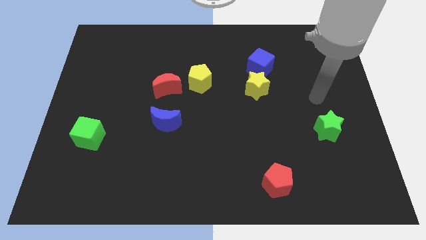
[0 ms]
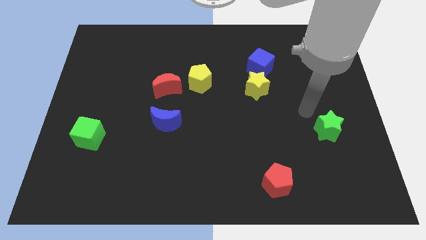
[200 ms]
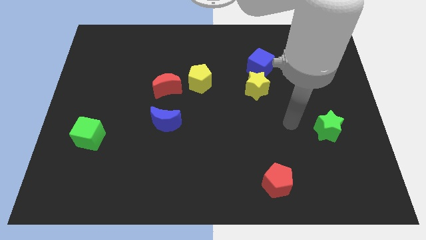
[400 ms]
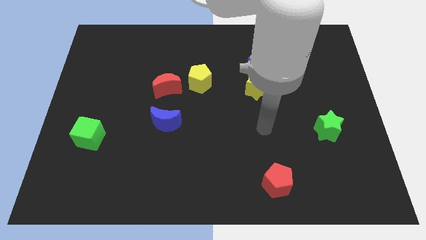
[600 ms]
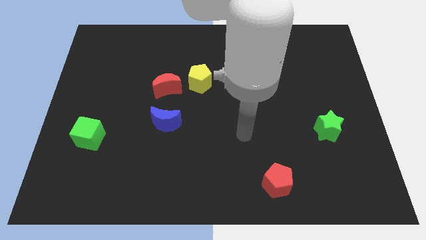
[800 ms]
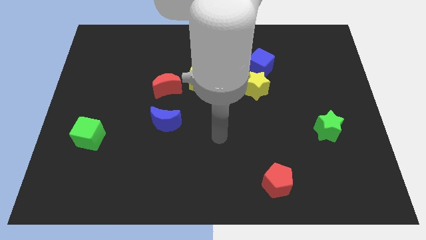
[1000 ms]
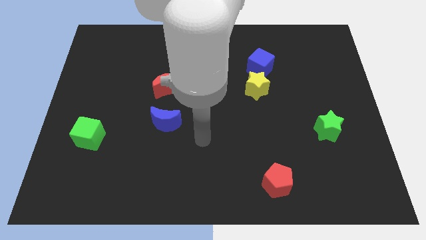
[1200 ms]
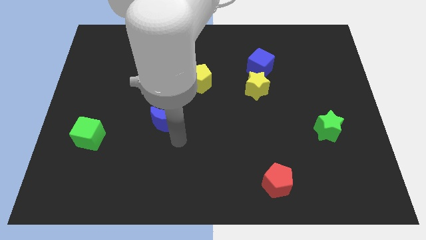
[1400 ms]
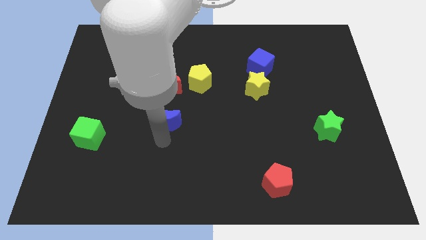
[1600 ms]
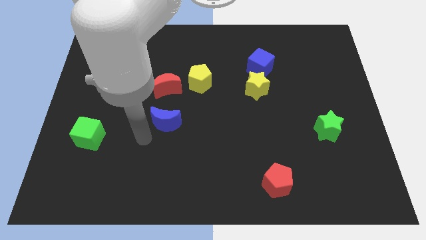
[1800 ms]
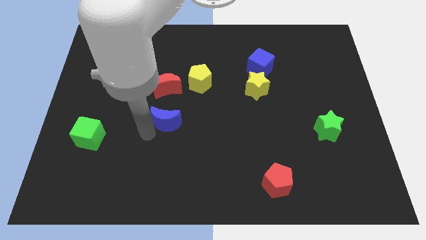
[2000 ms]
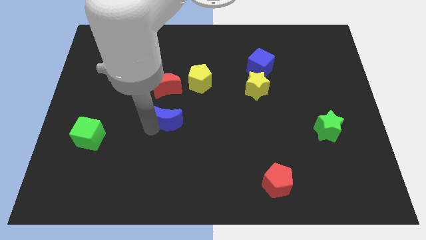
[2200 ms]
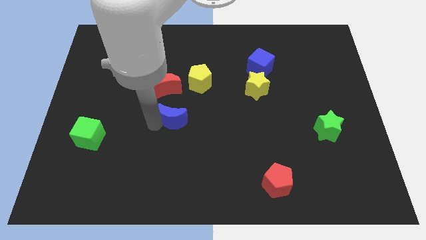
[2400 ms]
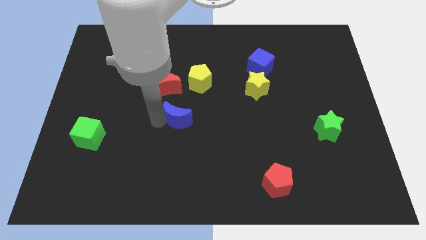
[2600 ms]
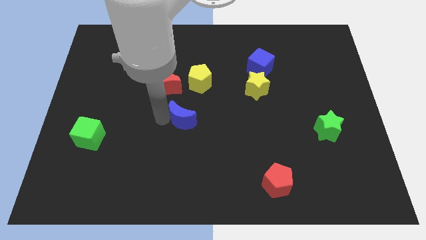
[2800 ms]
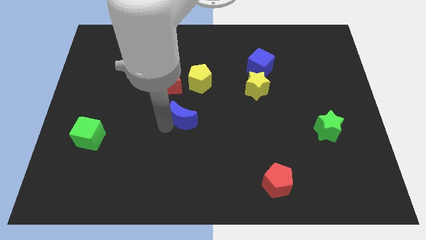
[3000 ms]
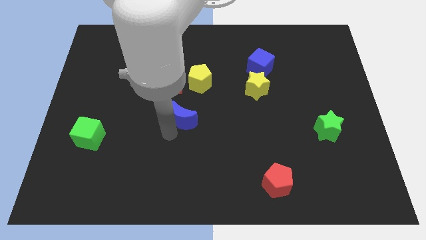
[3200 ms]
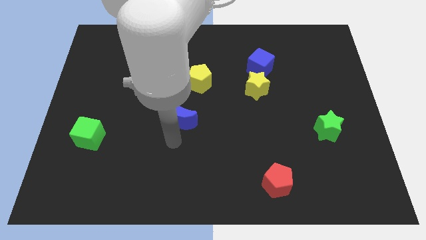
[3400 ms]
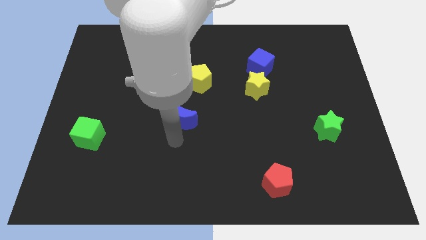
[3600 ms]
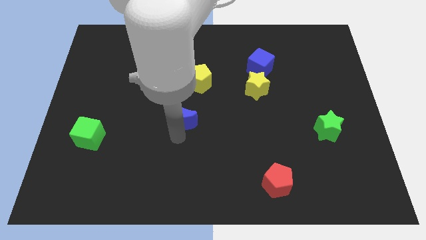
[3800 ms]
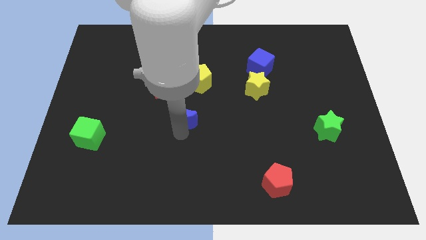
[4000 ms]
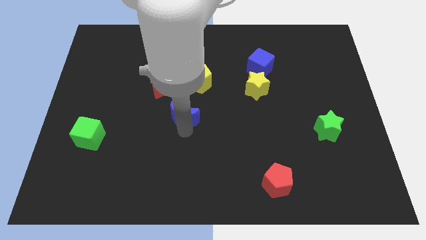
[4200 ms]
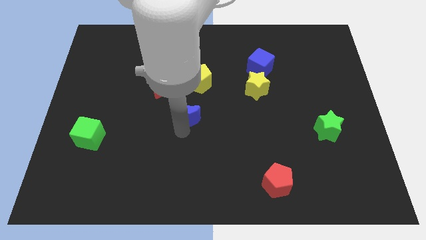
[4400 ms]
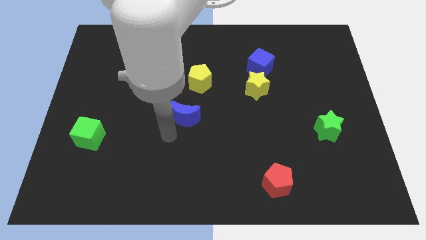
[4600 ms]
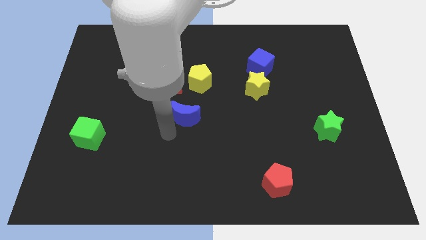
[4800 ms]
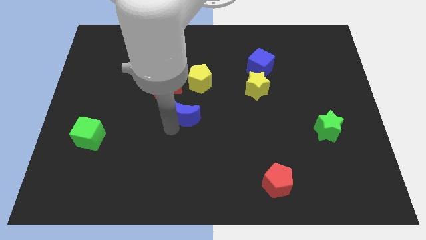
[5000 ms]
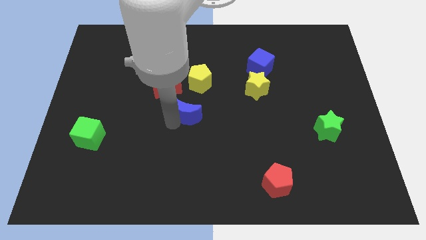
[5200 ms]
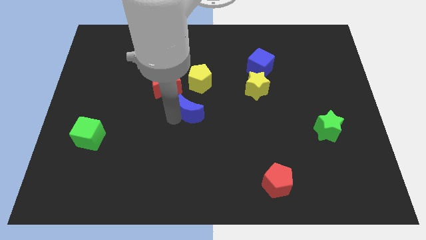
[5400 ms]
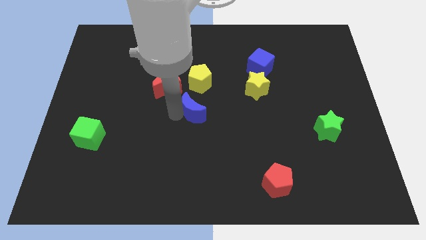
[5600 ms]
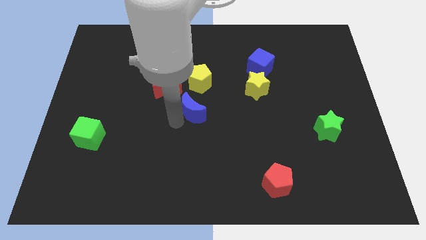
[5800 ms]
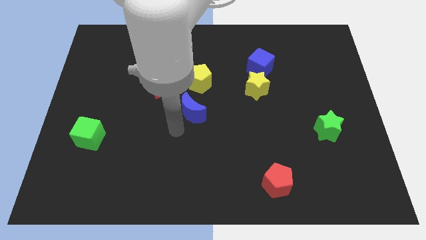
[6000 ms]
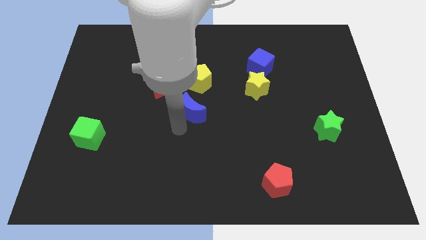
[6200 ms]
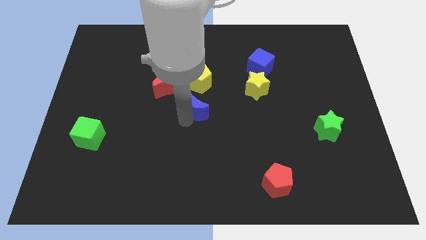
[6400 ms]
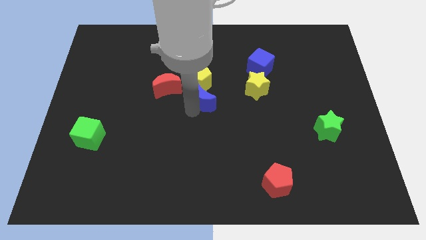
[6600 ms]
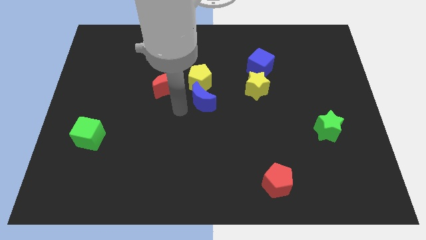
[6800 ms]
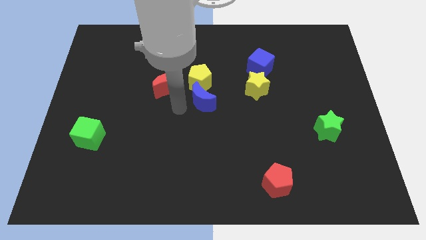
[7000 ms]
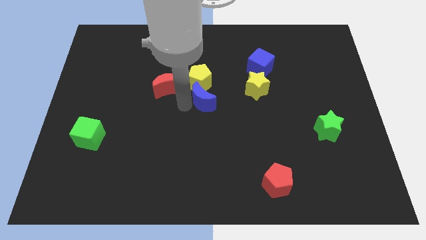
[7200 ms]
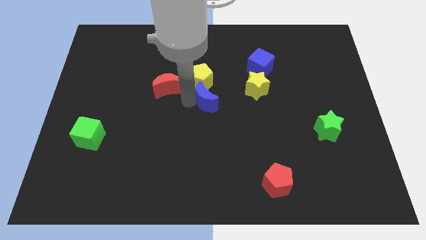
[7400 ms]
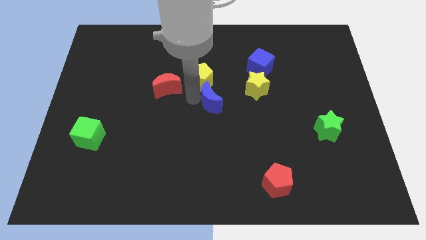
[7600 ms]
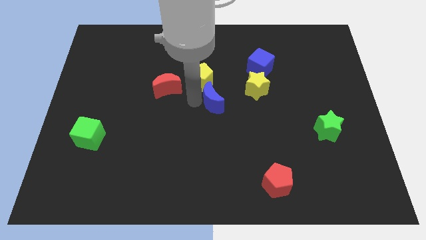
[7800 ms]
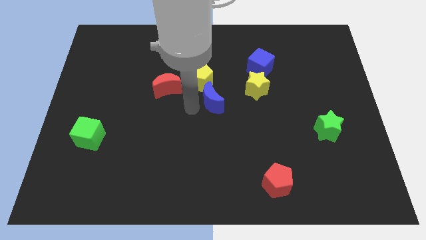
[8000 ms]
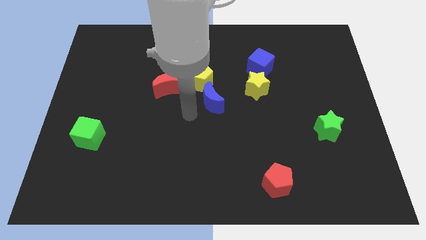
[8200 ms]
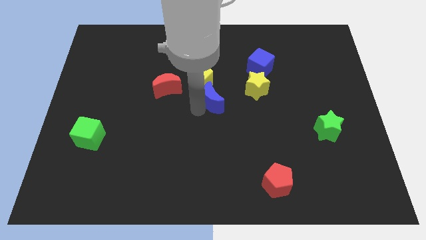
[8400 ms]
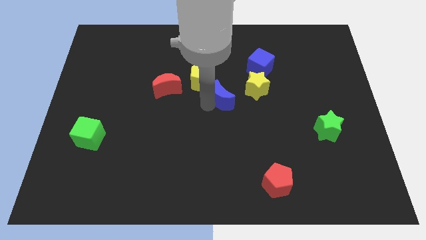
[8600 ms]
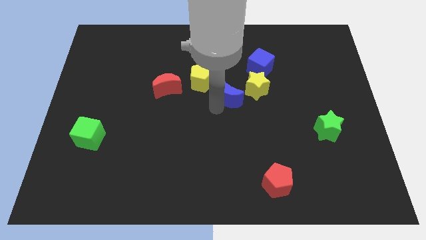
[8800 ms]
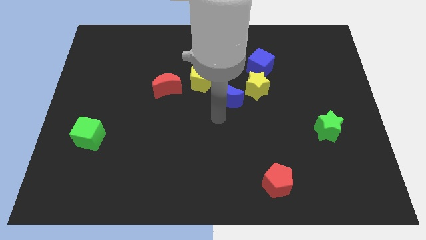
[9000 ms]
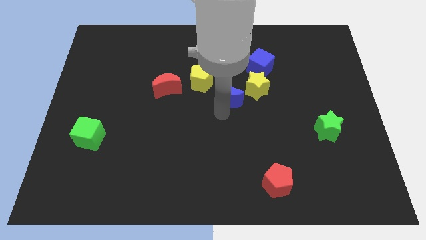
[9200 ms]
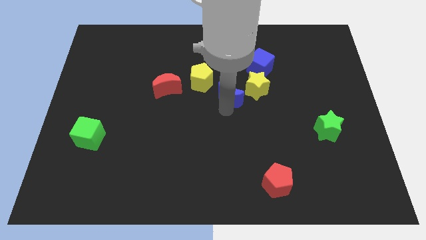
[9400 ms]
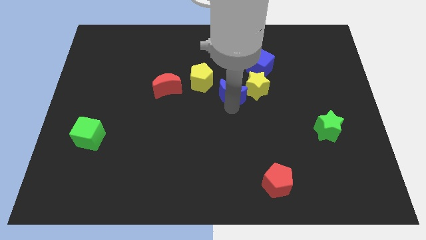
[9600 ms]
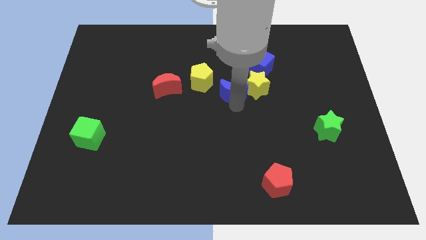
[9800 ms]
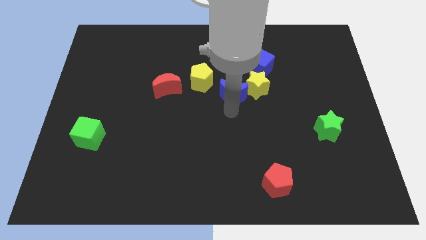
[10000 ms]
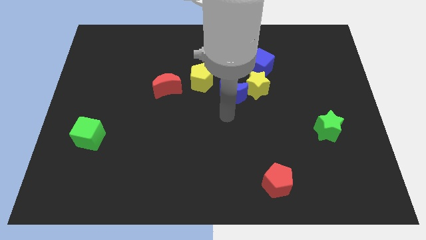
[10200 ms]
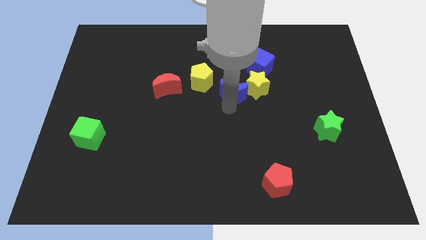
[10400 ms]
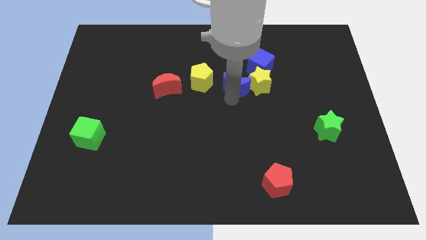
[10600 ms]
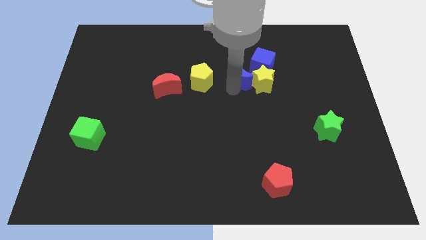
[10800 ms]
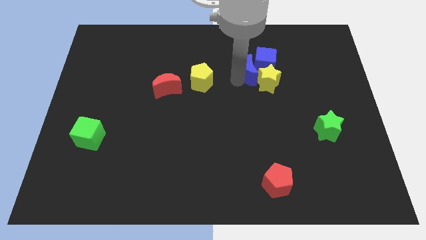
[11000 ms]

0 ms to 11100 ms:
push the blue moon close to the blue cube

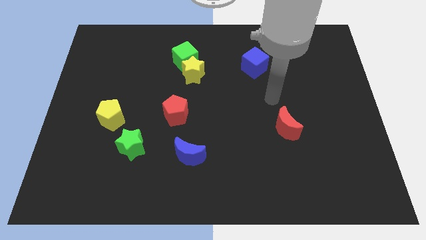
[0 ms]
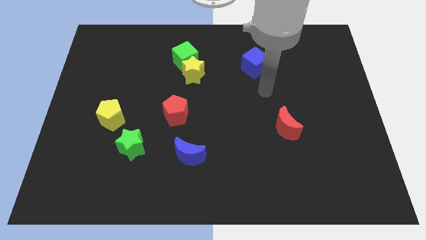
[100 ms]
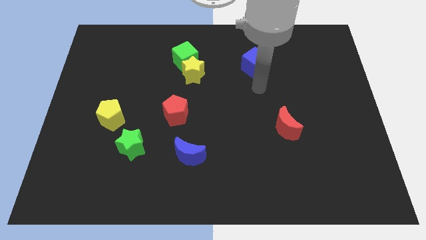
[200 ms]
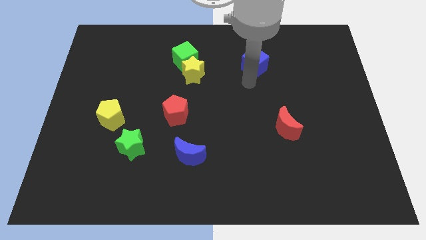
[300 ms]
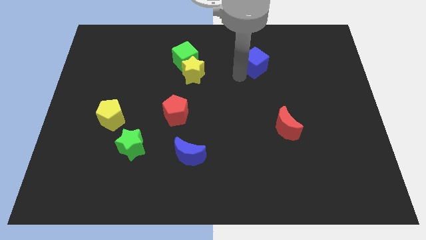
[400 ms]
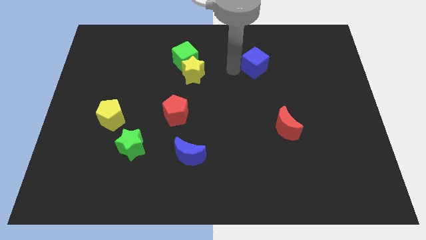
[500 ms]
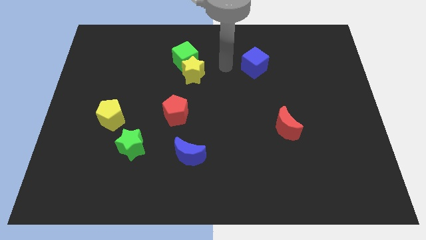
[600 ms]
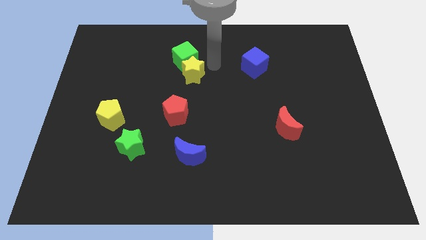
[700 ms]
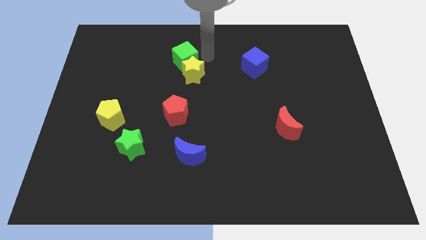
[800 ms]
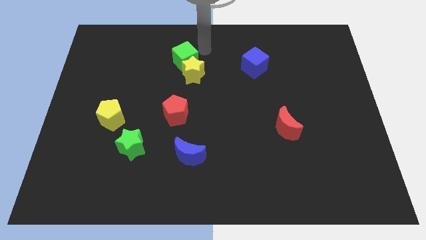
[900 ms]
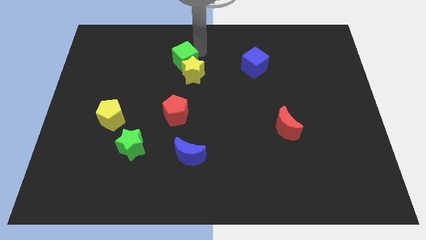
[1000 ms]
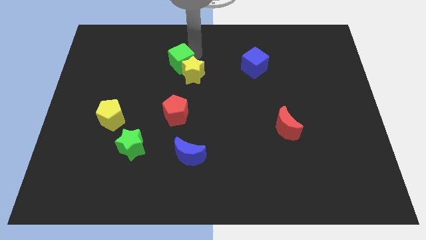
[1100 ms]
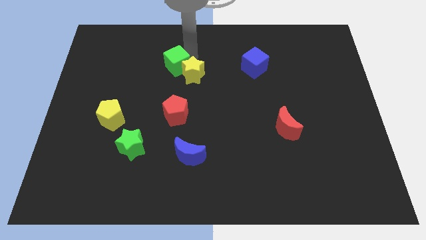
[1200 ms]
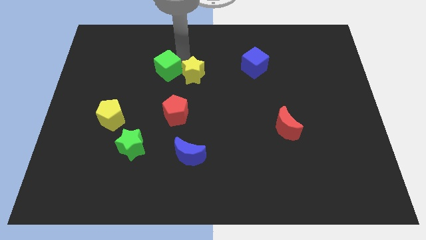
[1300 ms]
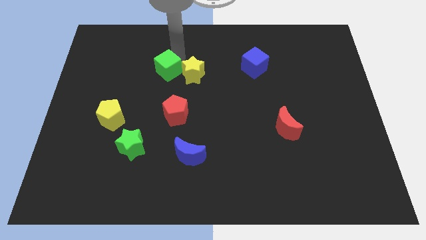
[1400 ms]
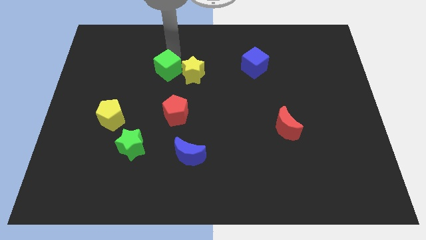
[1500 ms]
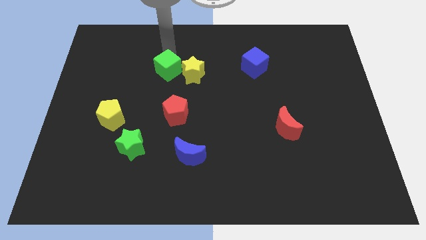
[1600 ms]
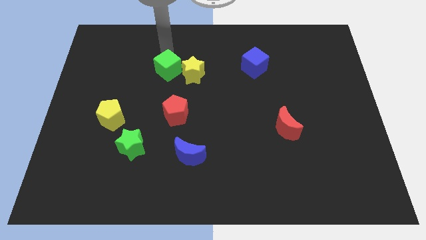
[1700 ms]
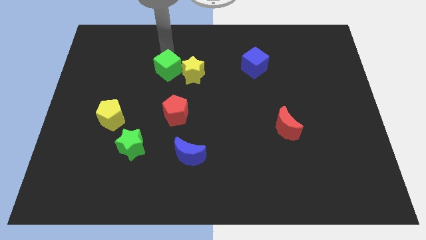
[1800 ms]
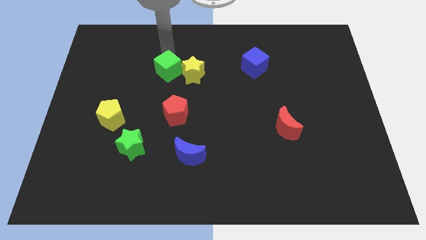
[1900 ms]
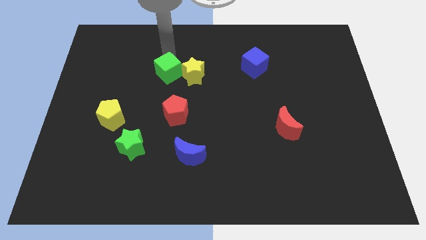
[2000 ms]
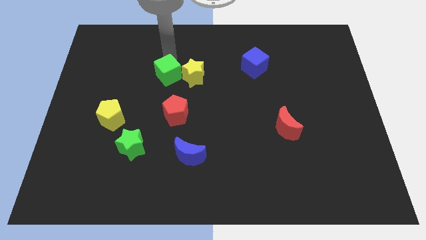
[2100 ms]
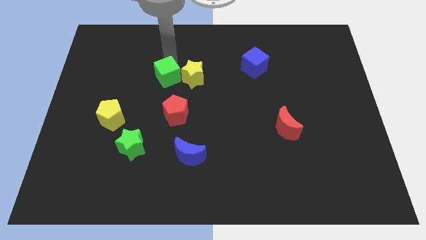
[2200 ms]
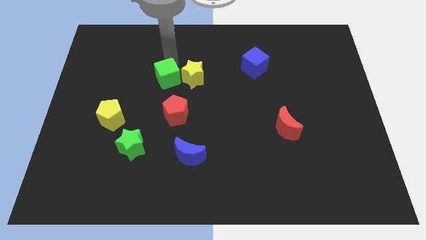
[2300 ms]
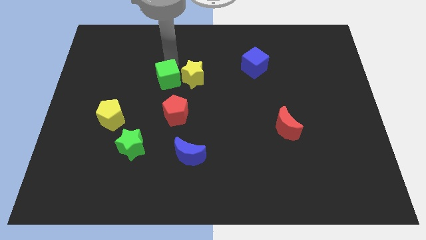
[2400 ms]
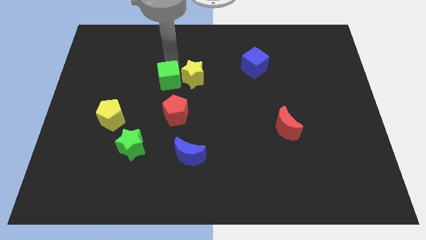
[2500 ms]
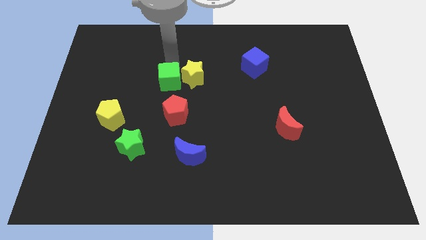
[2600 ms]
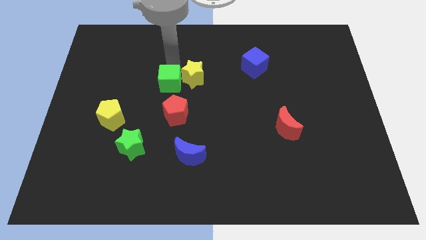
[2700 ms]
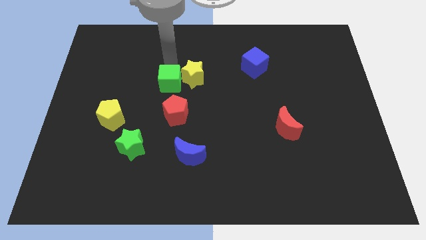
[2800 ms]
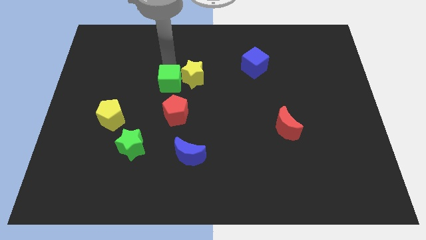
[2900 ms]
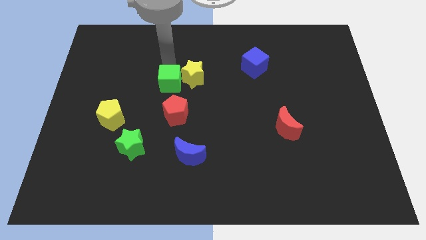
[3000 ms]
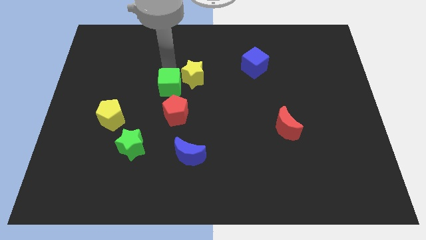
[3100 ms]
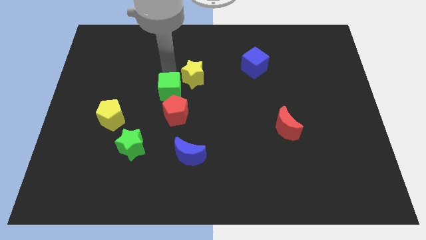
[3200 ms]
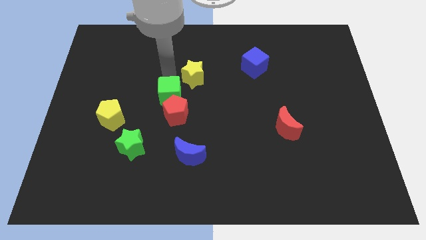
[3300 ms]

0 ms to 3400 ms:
push the green cube towards the red pentagon
